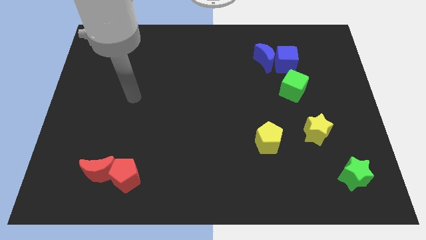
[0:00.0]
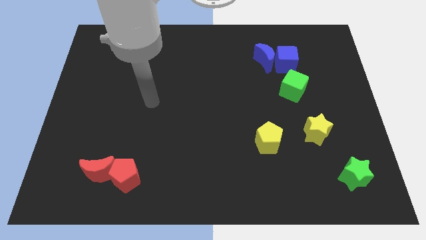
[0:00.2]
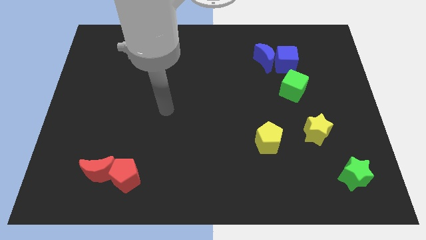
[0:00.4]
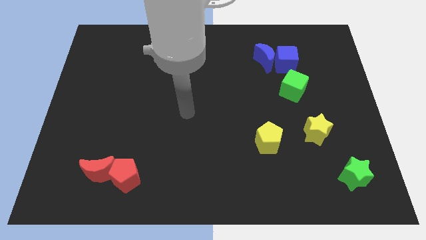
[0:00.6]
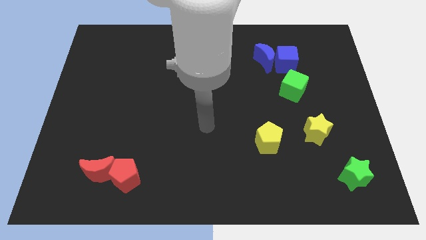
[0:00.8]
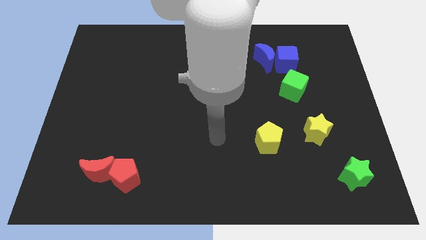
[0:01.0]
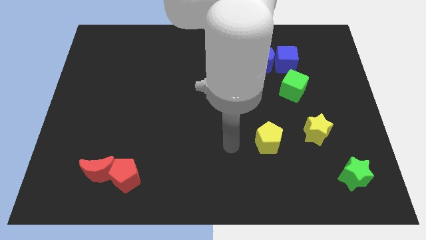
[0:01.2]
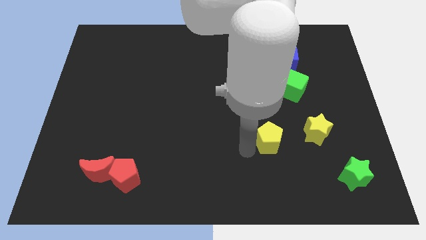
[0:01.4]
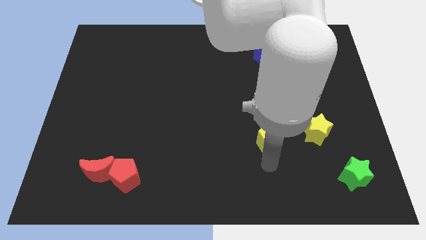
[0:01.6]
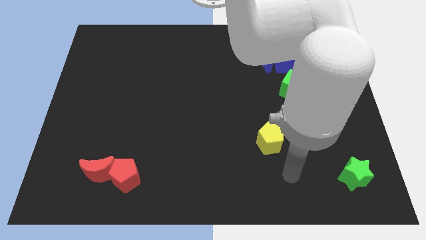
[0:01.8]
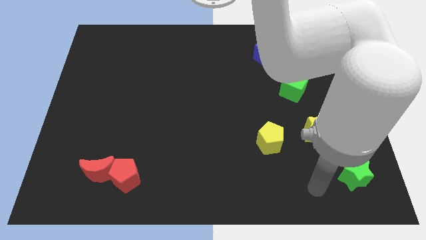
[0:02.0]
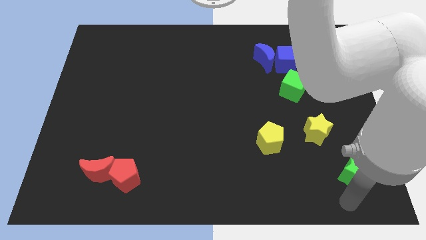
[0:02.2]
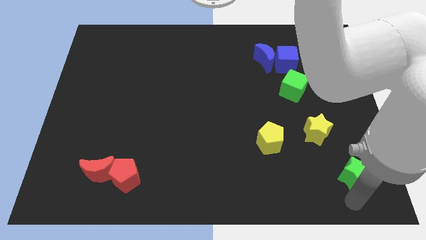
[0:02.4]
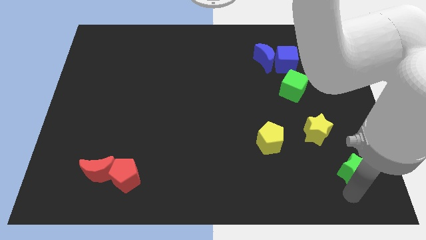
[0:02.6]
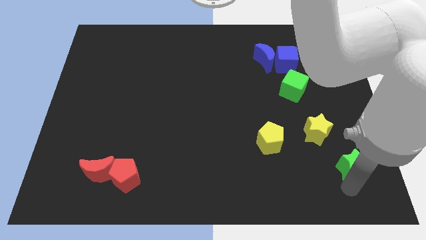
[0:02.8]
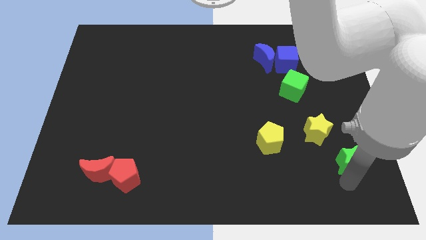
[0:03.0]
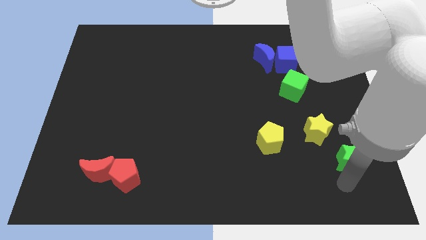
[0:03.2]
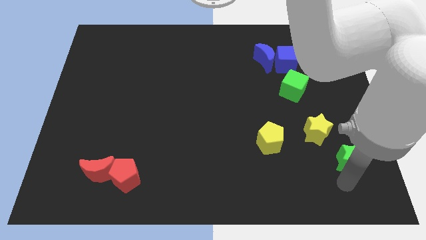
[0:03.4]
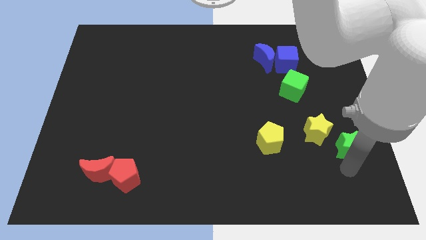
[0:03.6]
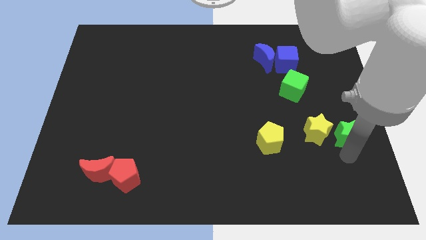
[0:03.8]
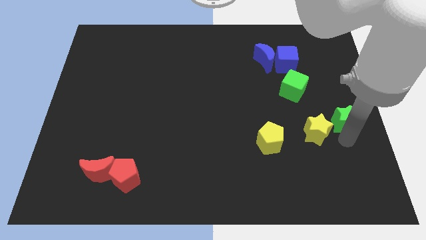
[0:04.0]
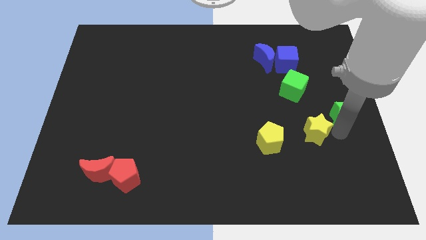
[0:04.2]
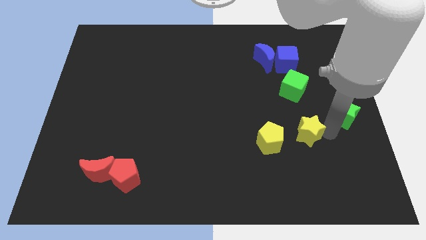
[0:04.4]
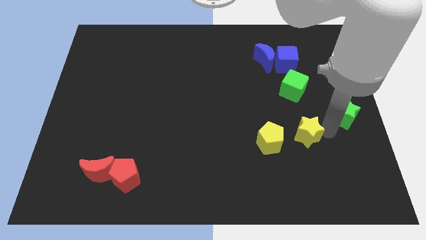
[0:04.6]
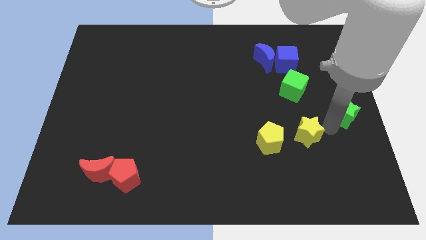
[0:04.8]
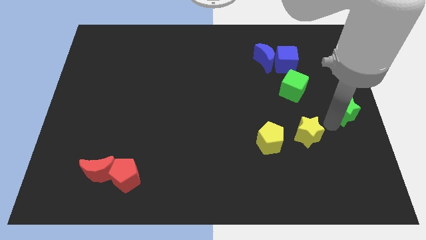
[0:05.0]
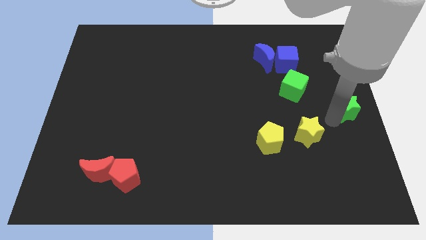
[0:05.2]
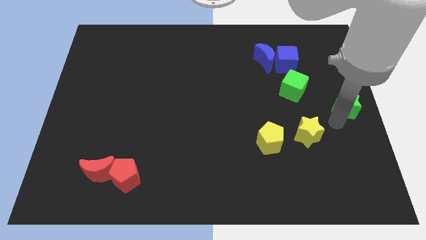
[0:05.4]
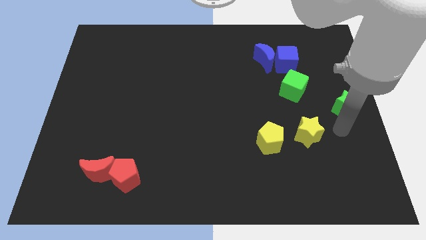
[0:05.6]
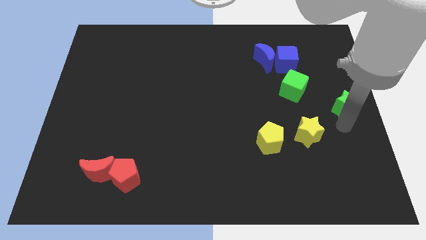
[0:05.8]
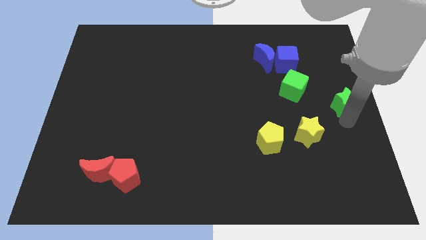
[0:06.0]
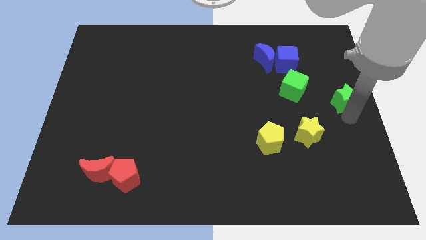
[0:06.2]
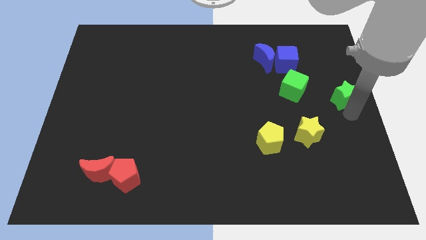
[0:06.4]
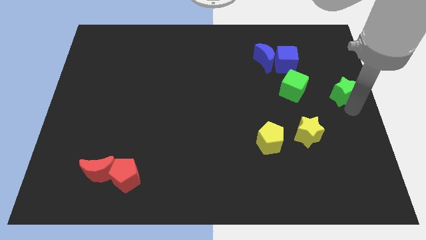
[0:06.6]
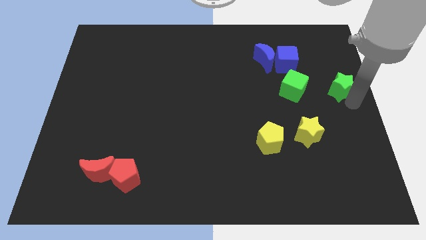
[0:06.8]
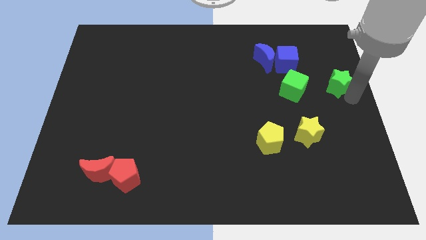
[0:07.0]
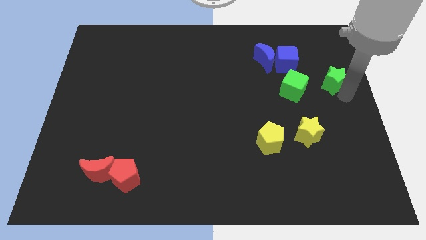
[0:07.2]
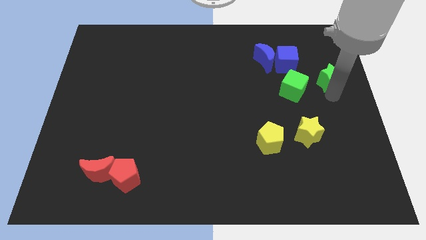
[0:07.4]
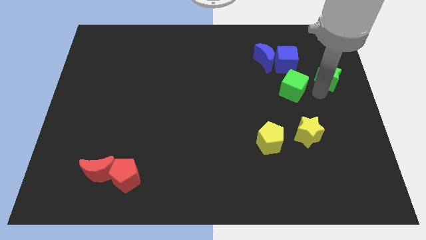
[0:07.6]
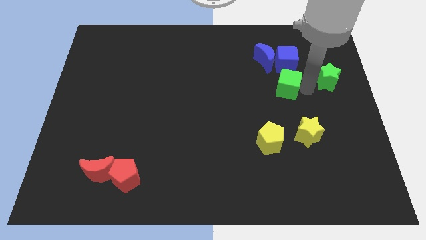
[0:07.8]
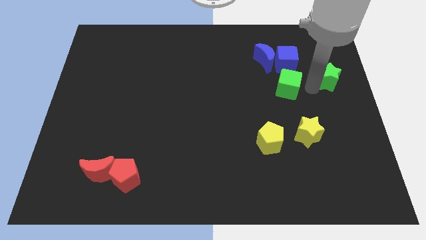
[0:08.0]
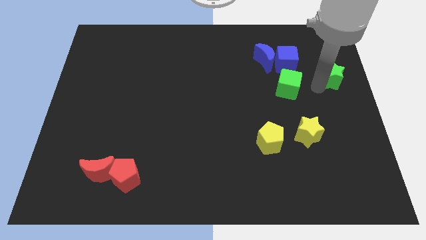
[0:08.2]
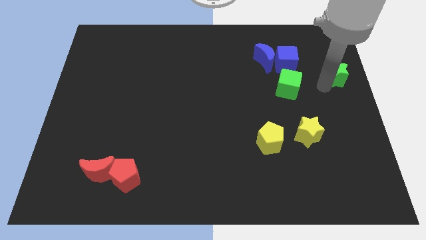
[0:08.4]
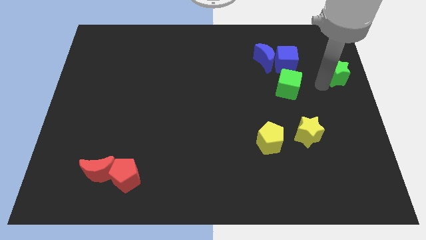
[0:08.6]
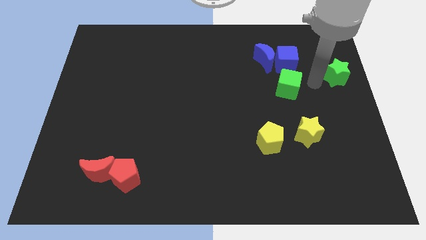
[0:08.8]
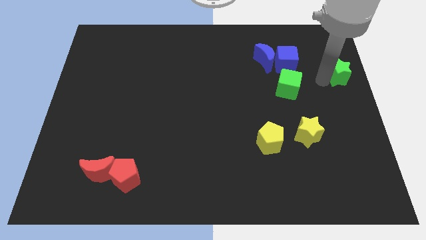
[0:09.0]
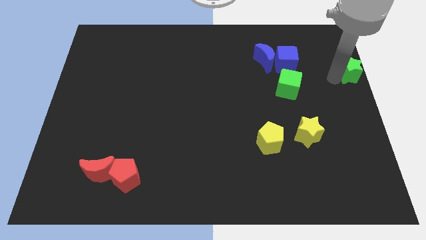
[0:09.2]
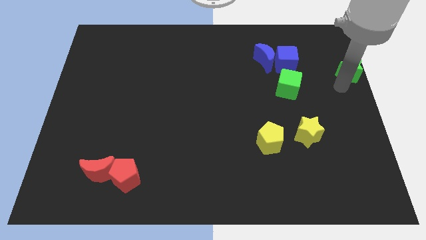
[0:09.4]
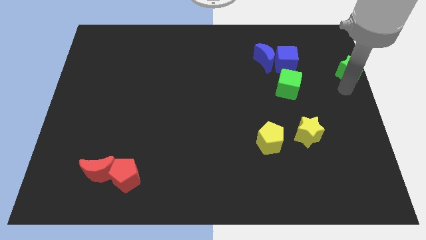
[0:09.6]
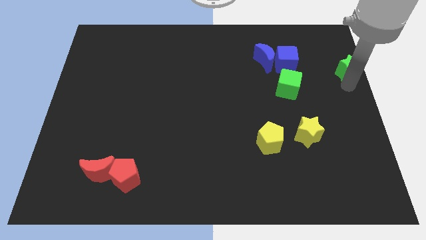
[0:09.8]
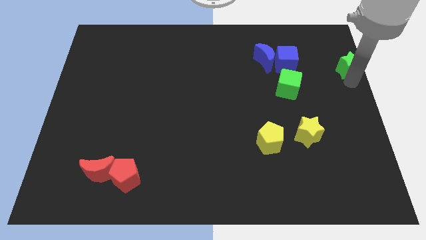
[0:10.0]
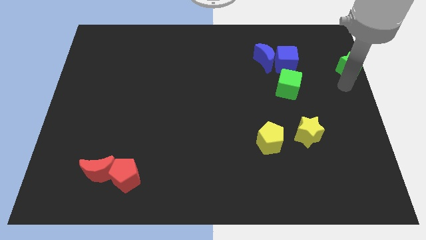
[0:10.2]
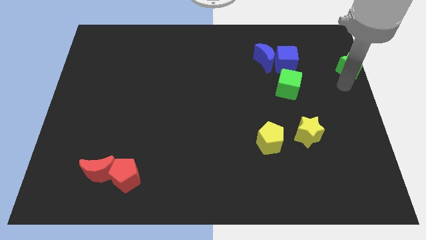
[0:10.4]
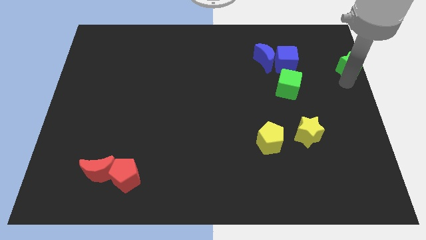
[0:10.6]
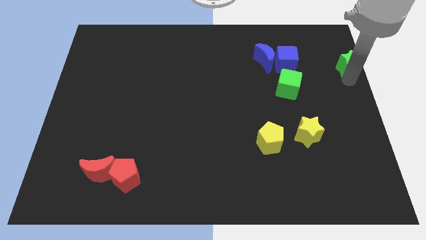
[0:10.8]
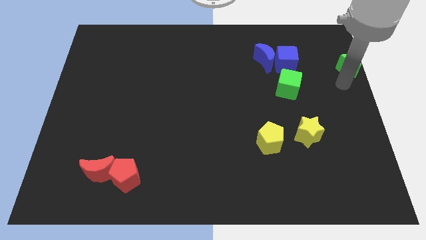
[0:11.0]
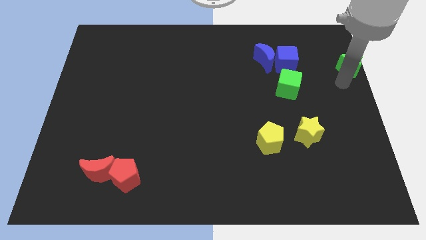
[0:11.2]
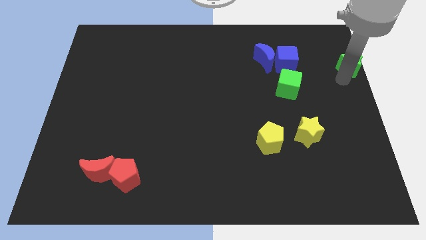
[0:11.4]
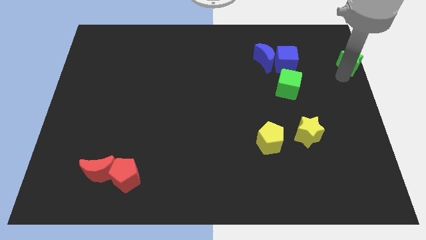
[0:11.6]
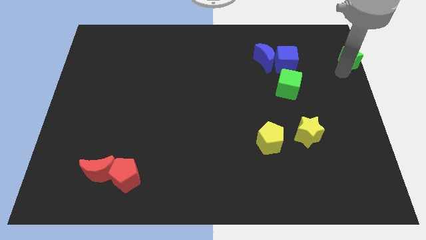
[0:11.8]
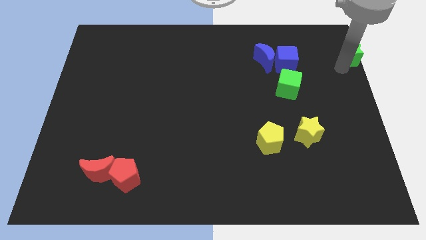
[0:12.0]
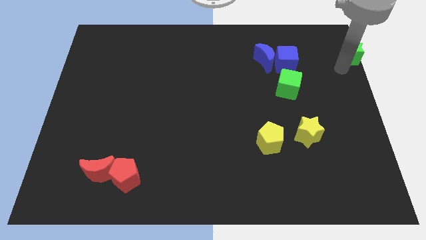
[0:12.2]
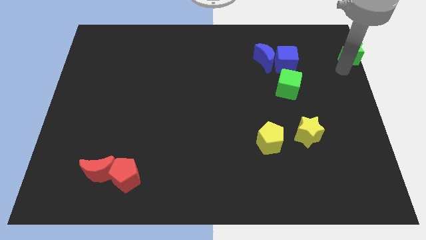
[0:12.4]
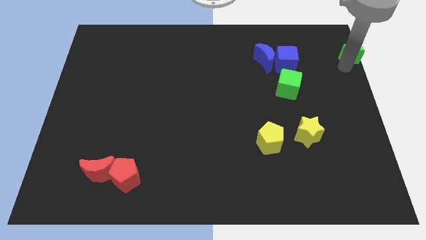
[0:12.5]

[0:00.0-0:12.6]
move the green star to the upper right corner

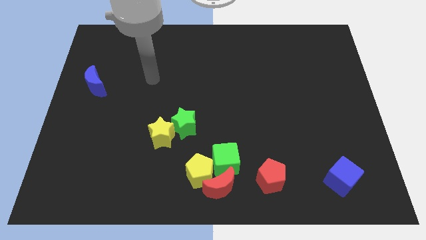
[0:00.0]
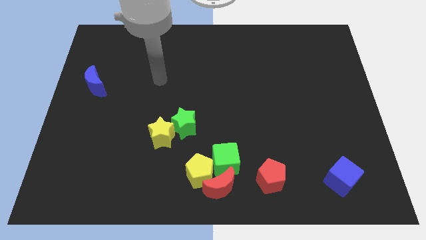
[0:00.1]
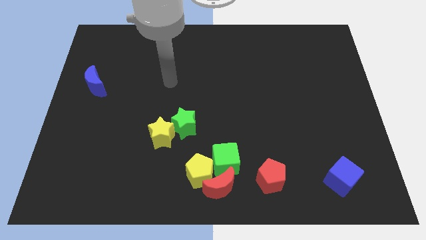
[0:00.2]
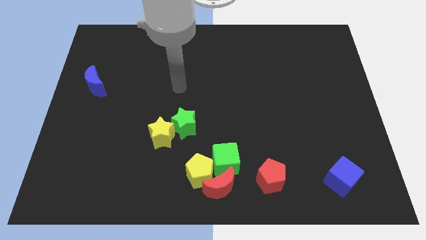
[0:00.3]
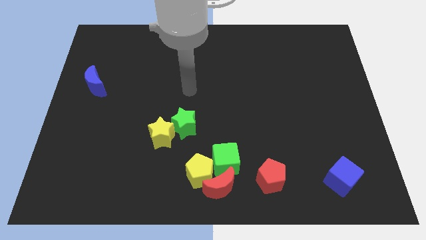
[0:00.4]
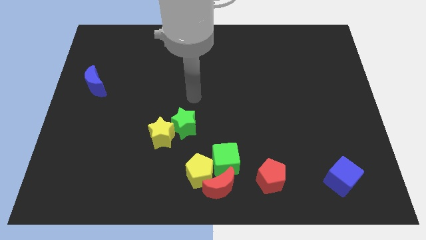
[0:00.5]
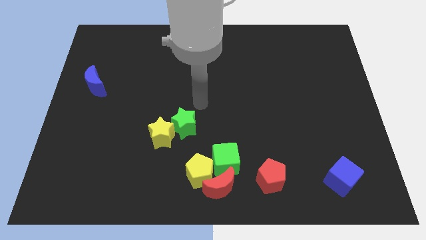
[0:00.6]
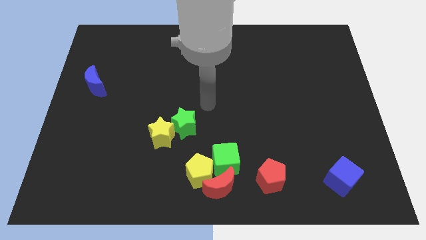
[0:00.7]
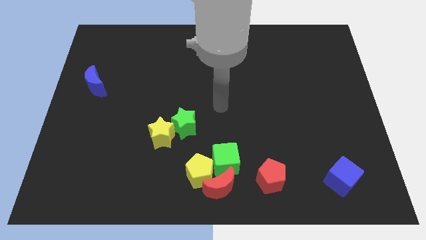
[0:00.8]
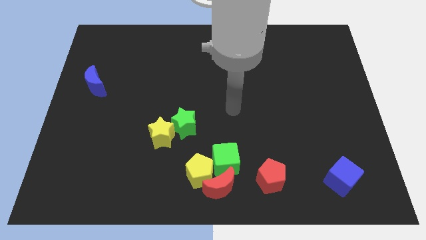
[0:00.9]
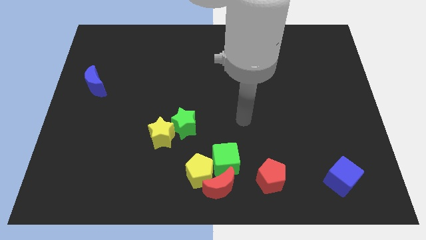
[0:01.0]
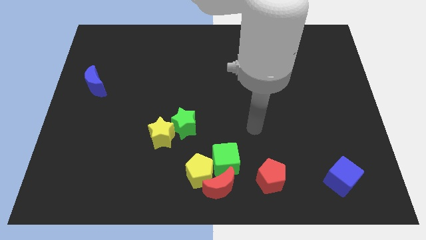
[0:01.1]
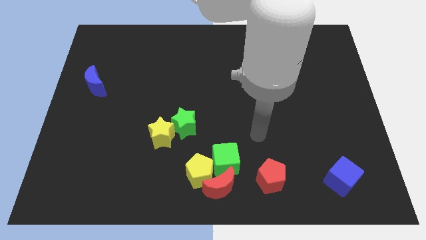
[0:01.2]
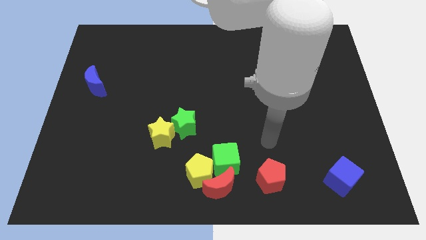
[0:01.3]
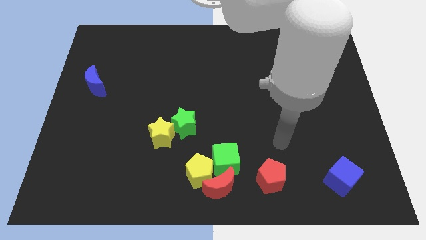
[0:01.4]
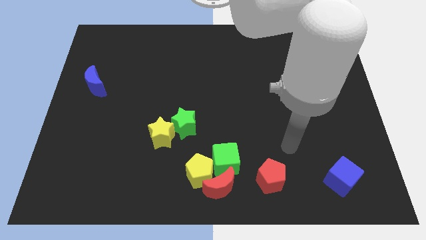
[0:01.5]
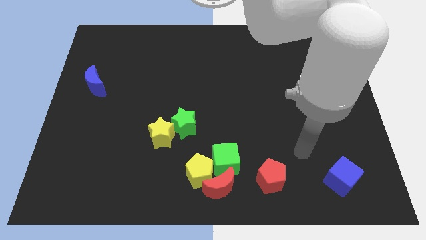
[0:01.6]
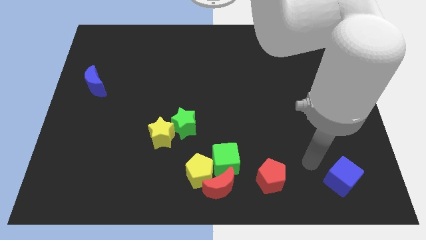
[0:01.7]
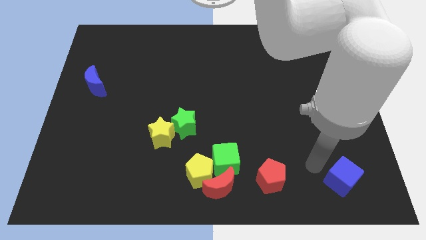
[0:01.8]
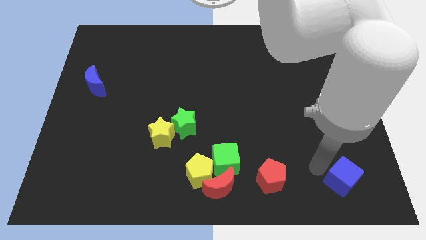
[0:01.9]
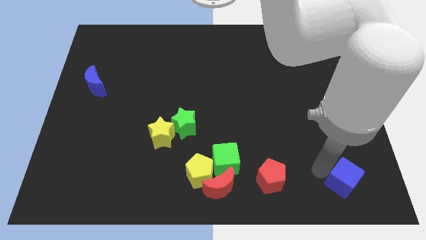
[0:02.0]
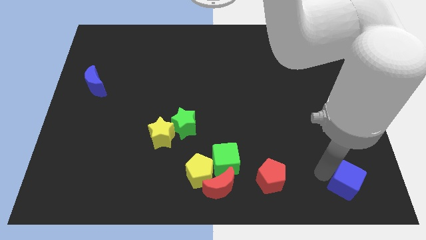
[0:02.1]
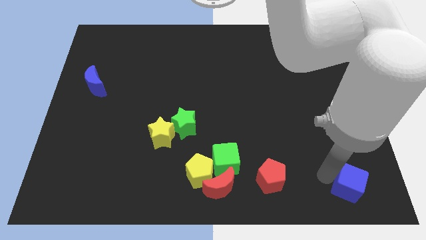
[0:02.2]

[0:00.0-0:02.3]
push the blue cube to the bottom right corner
